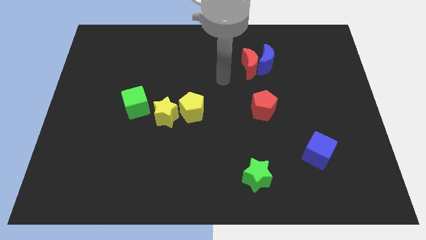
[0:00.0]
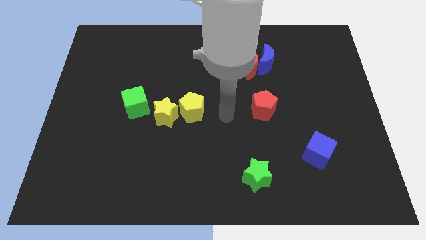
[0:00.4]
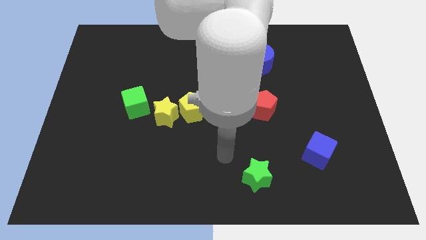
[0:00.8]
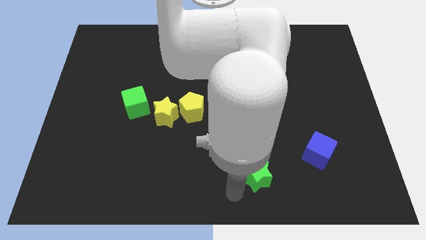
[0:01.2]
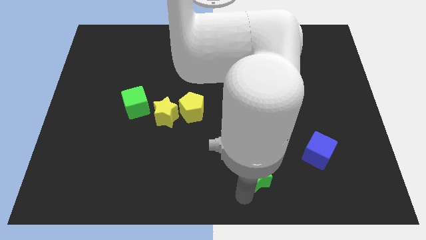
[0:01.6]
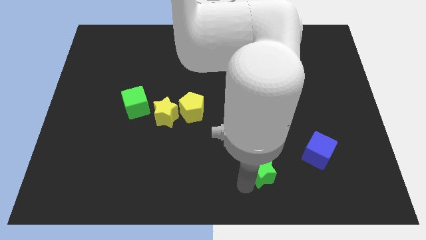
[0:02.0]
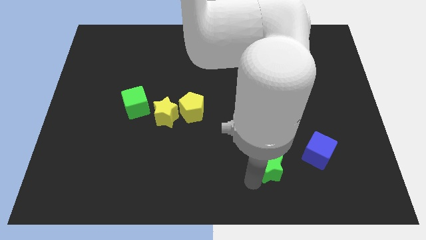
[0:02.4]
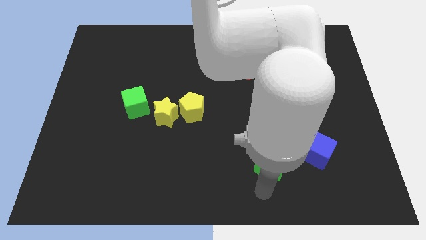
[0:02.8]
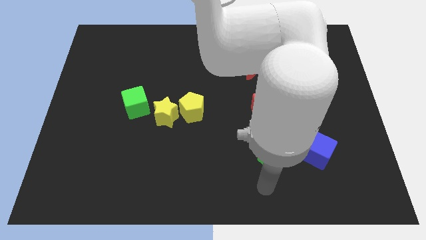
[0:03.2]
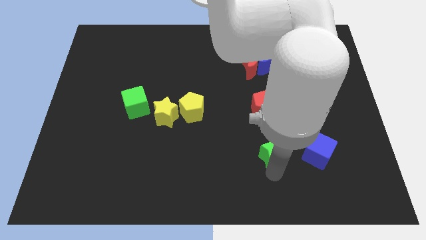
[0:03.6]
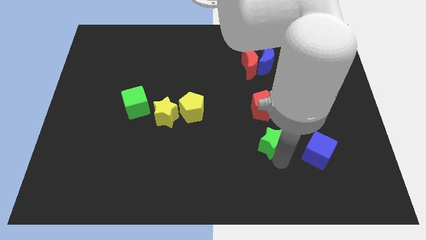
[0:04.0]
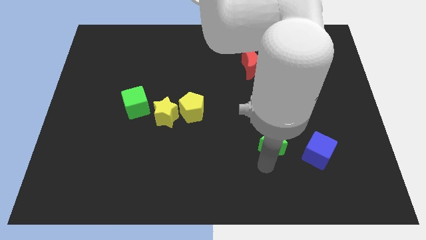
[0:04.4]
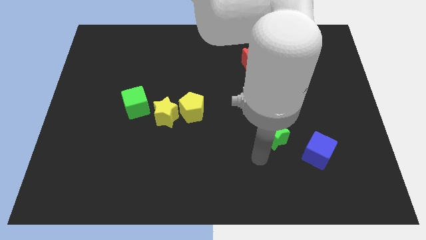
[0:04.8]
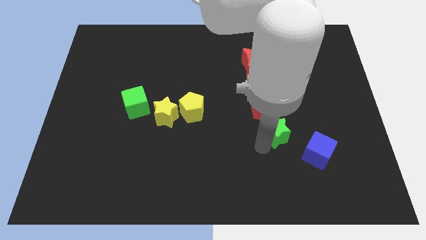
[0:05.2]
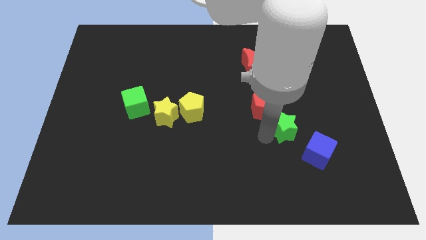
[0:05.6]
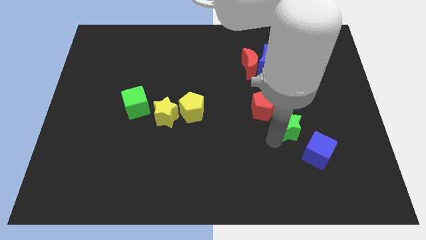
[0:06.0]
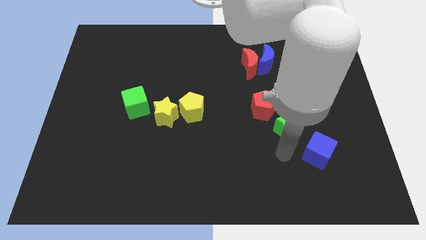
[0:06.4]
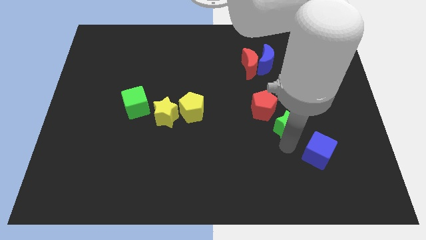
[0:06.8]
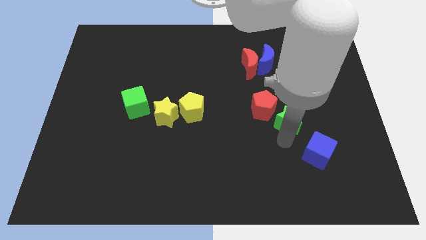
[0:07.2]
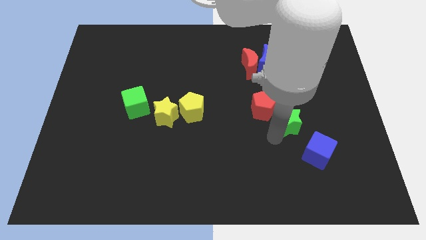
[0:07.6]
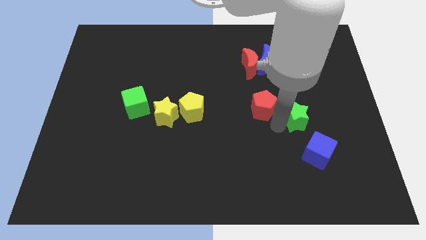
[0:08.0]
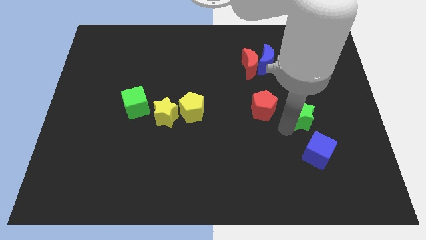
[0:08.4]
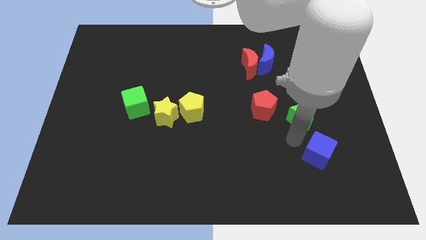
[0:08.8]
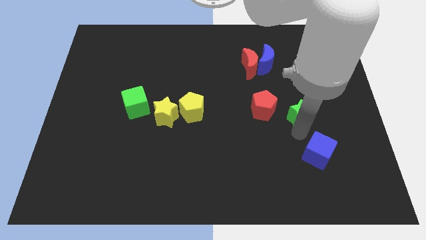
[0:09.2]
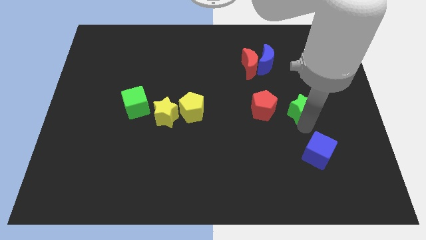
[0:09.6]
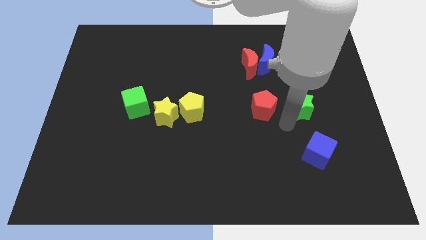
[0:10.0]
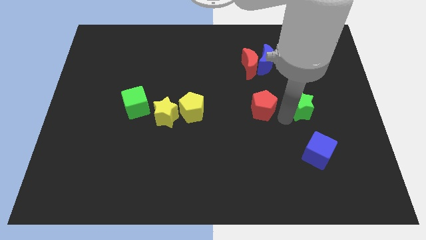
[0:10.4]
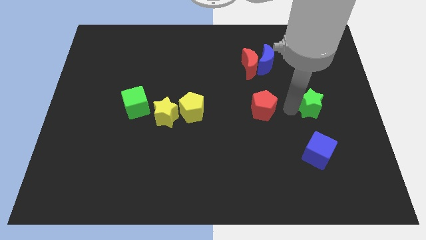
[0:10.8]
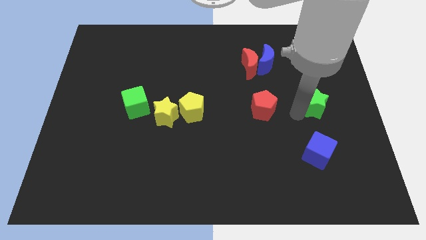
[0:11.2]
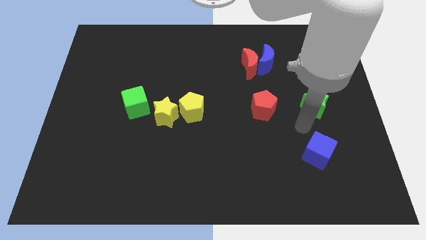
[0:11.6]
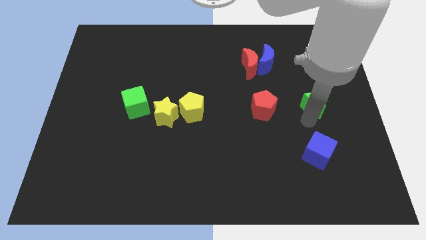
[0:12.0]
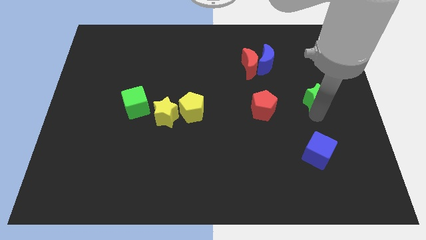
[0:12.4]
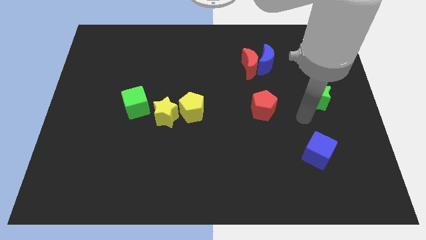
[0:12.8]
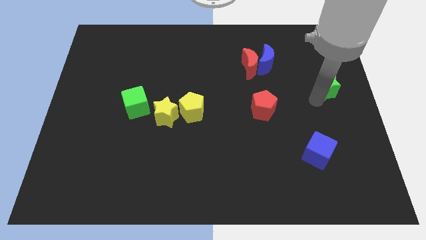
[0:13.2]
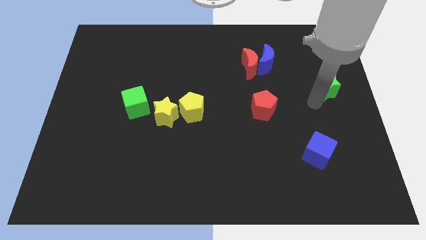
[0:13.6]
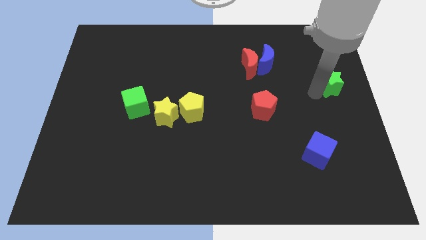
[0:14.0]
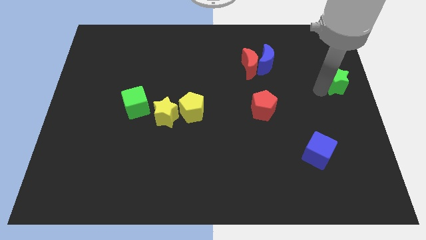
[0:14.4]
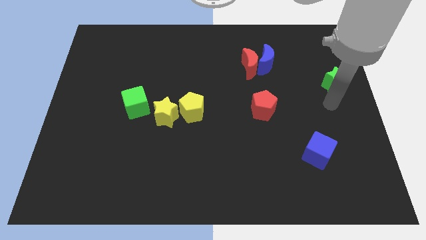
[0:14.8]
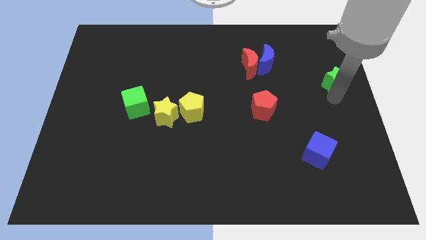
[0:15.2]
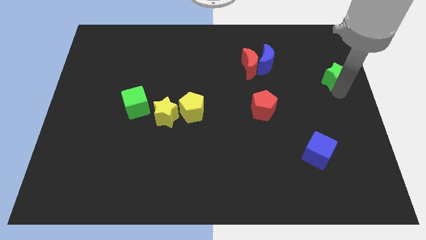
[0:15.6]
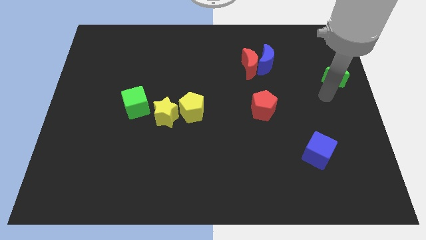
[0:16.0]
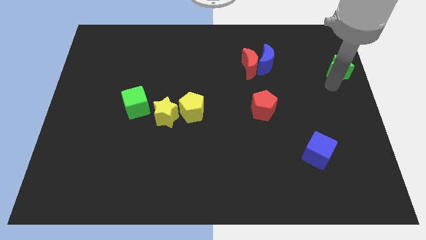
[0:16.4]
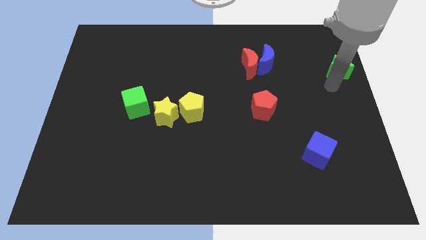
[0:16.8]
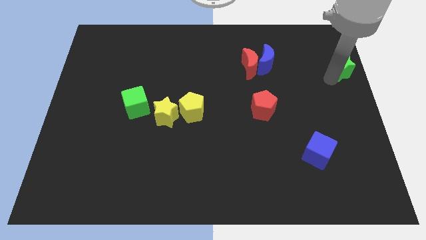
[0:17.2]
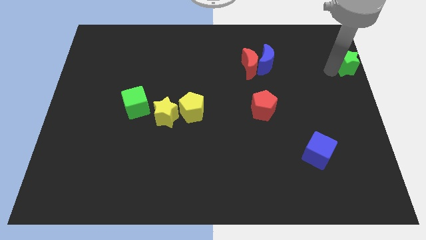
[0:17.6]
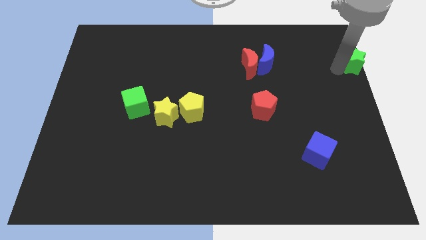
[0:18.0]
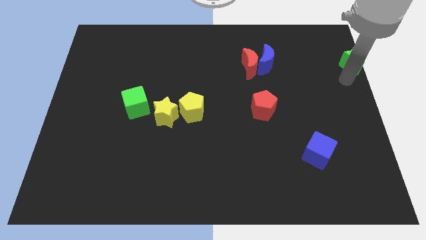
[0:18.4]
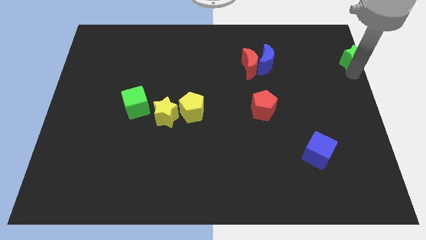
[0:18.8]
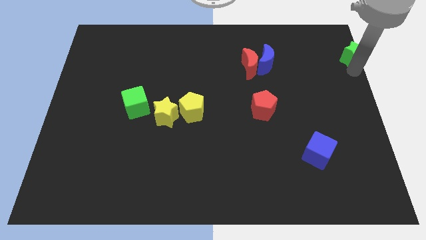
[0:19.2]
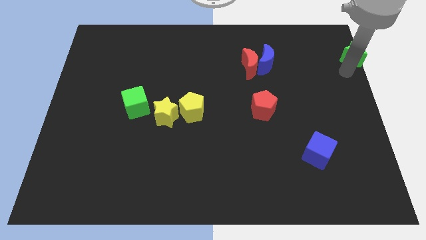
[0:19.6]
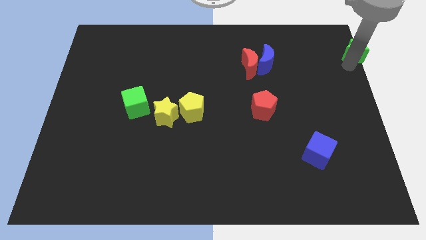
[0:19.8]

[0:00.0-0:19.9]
put the green star to the upper right corner

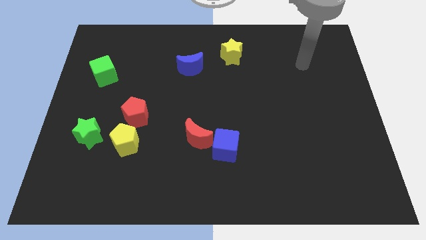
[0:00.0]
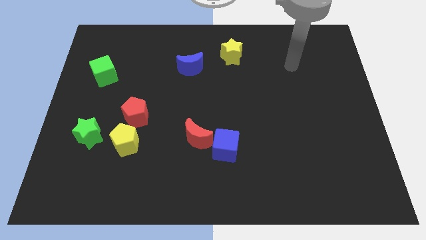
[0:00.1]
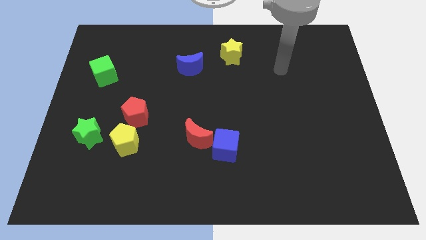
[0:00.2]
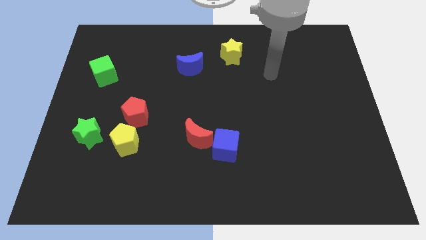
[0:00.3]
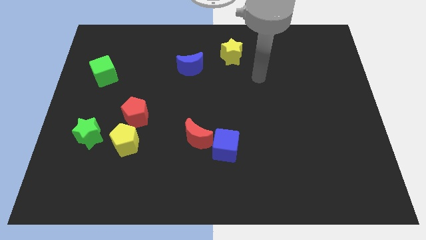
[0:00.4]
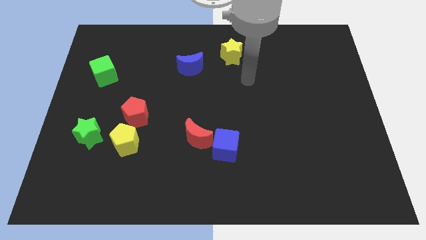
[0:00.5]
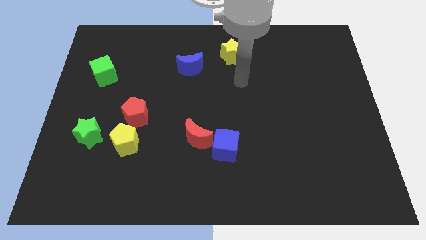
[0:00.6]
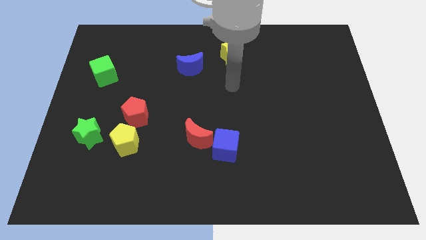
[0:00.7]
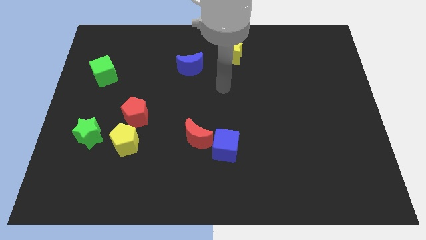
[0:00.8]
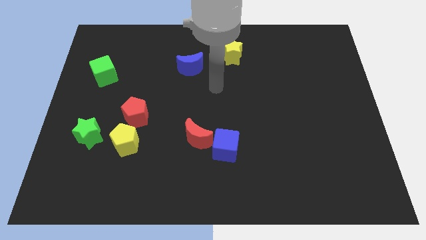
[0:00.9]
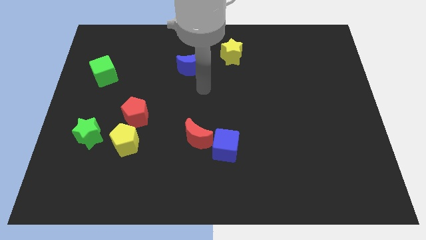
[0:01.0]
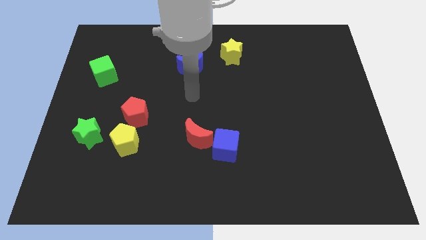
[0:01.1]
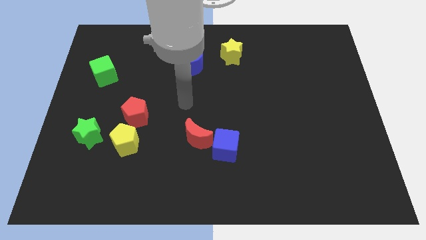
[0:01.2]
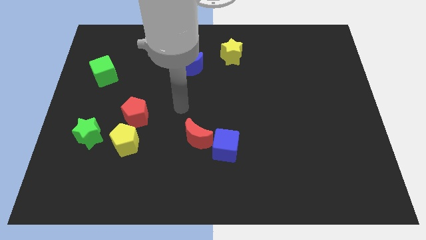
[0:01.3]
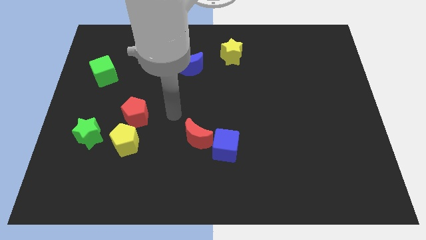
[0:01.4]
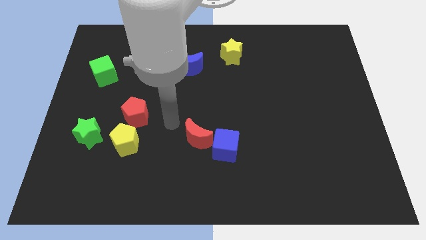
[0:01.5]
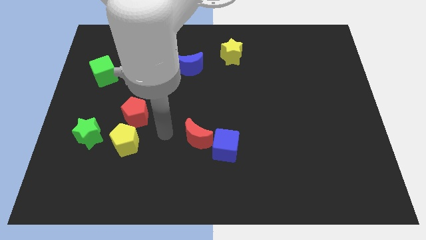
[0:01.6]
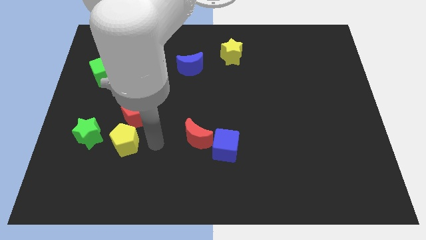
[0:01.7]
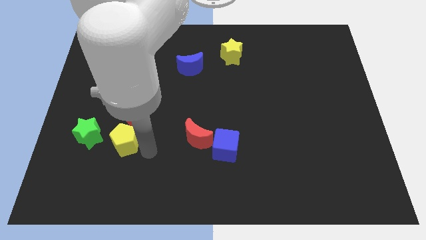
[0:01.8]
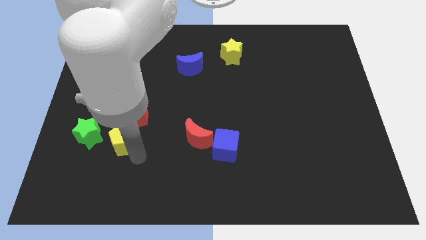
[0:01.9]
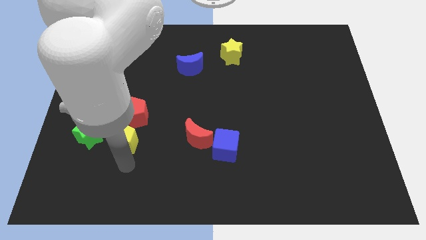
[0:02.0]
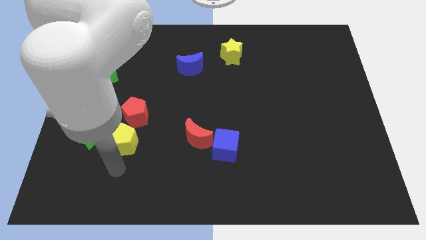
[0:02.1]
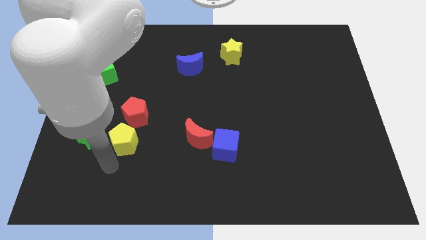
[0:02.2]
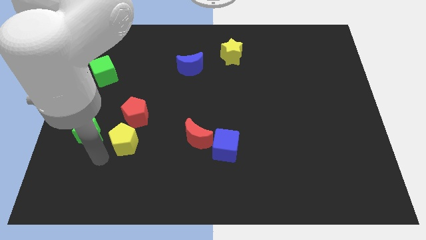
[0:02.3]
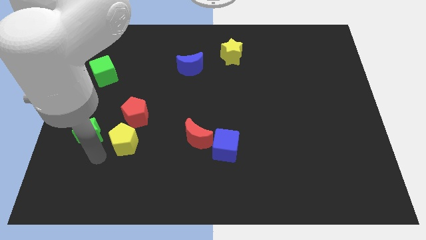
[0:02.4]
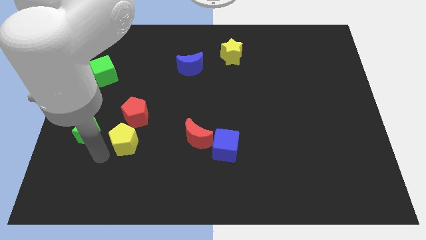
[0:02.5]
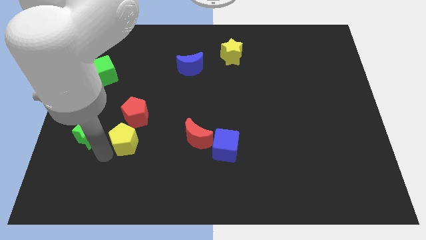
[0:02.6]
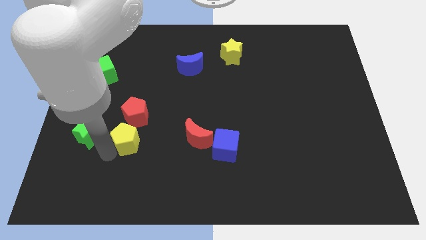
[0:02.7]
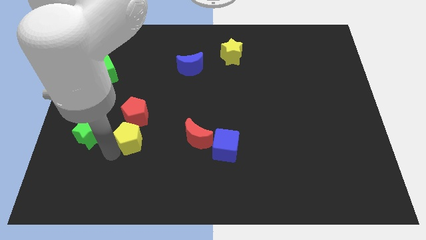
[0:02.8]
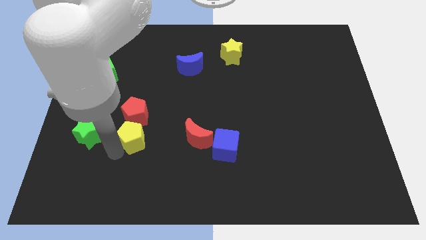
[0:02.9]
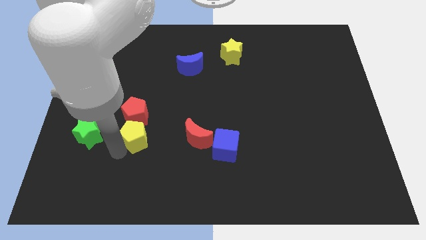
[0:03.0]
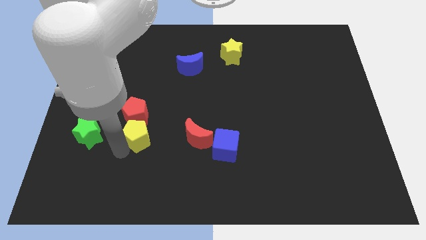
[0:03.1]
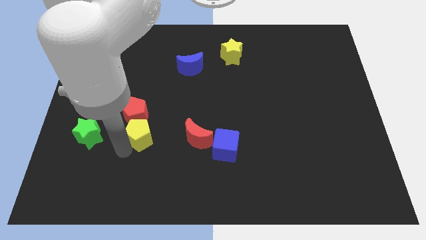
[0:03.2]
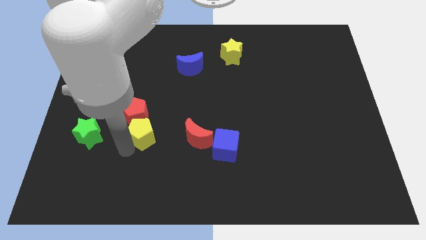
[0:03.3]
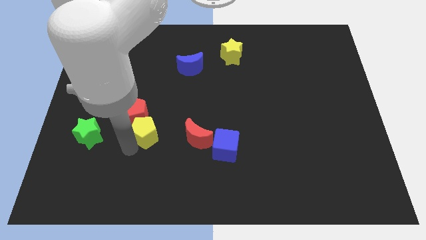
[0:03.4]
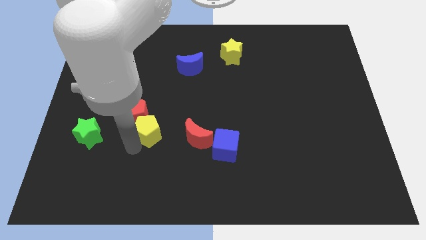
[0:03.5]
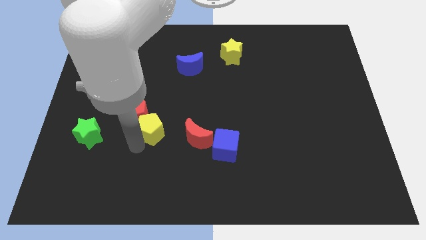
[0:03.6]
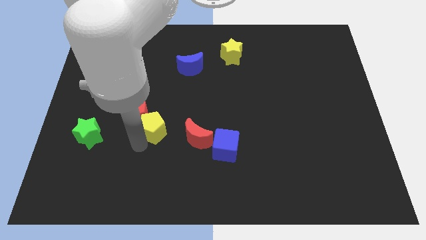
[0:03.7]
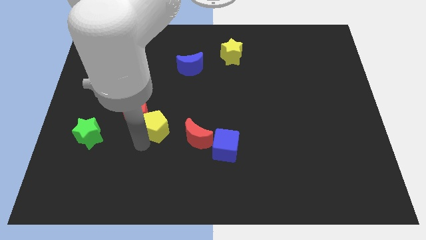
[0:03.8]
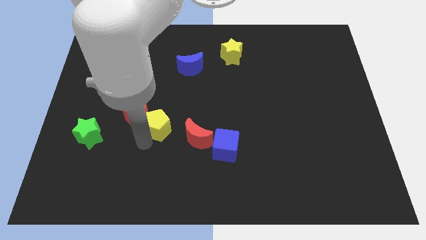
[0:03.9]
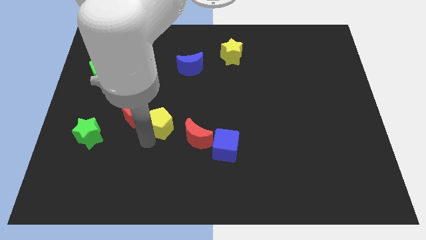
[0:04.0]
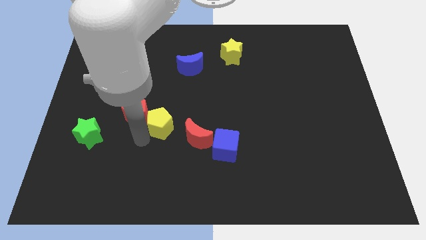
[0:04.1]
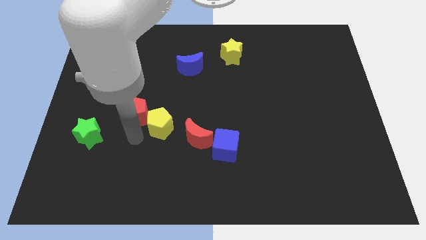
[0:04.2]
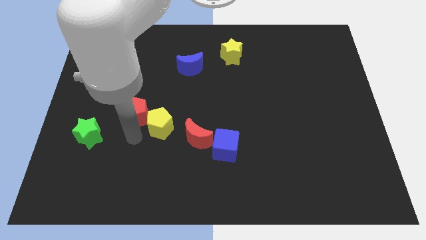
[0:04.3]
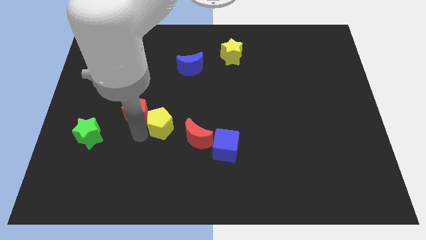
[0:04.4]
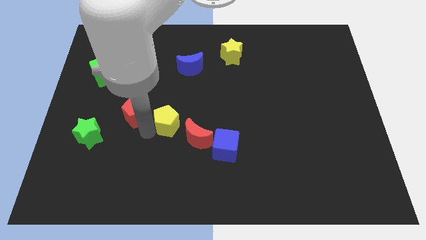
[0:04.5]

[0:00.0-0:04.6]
slide the yellow pentagon to the middle of the board
